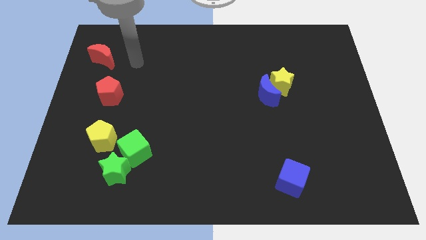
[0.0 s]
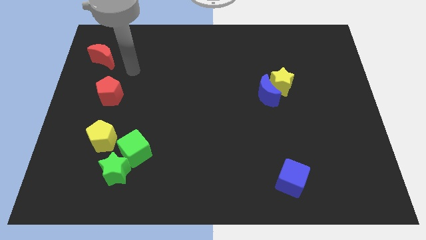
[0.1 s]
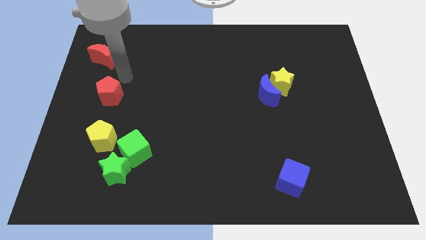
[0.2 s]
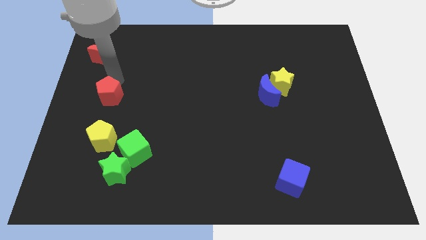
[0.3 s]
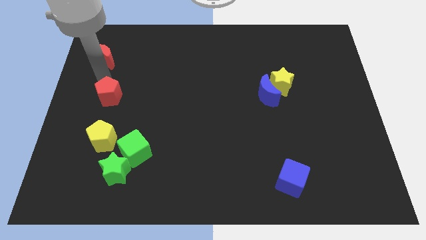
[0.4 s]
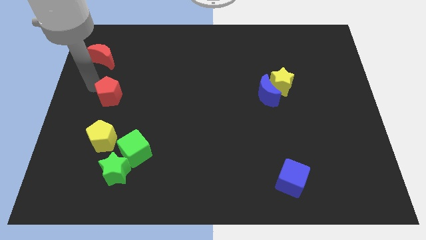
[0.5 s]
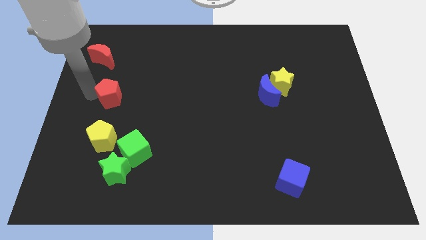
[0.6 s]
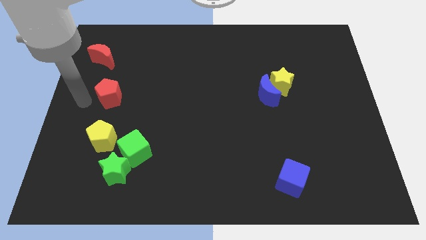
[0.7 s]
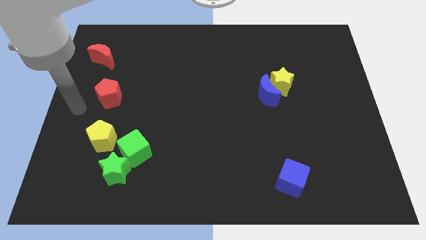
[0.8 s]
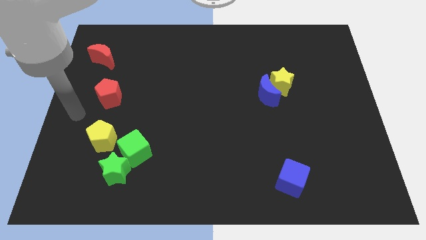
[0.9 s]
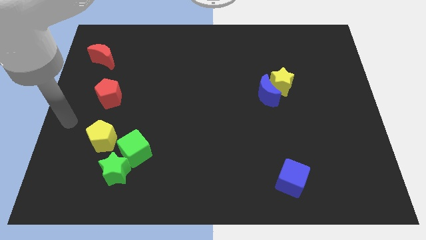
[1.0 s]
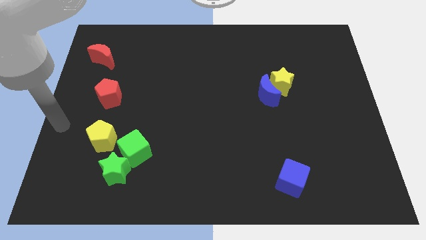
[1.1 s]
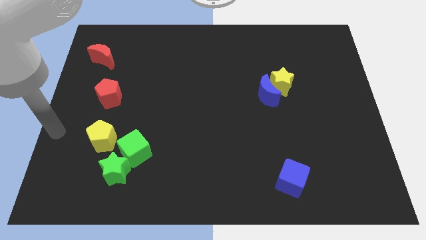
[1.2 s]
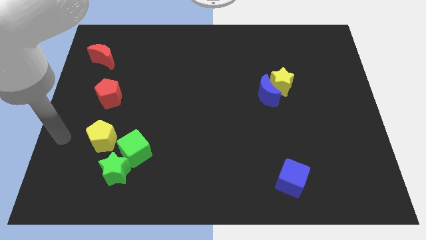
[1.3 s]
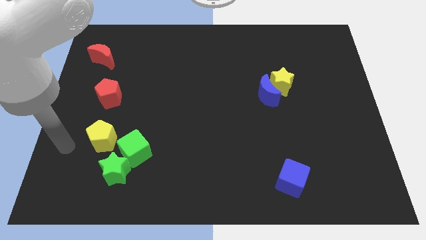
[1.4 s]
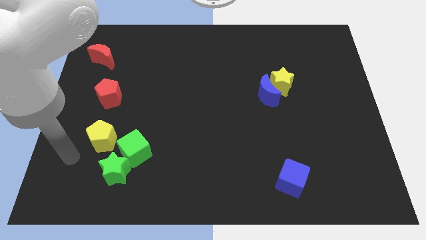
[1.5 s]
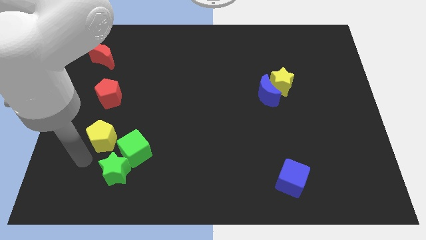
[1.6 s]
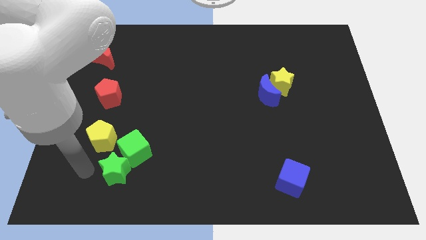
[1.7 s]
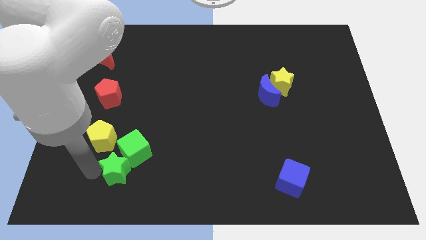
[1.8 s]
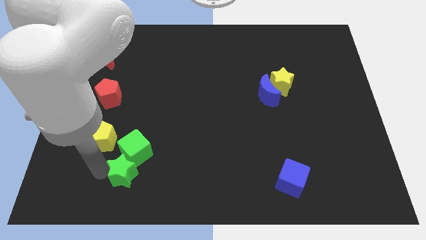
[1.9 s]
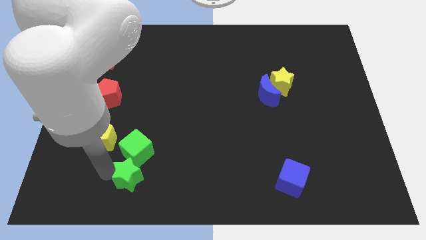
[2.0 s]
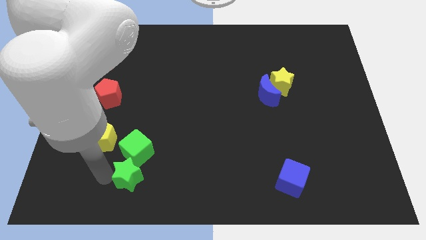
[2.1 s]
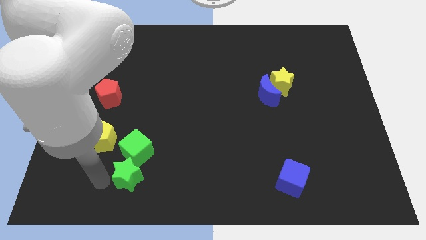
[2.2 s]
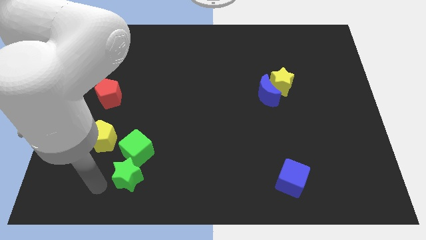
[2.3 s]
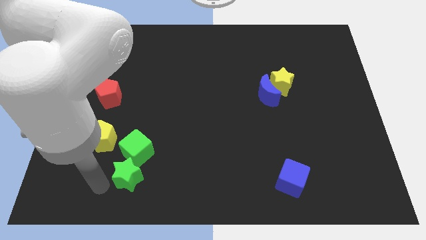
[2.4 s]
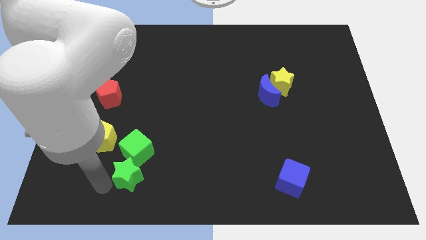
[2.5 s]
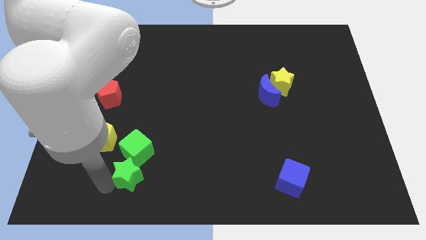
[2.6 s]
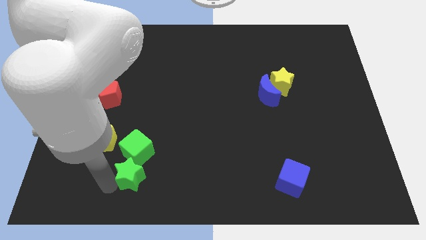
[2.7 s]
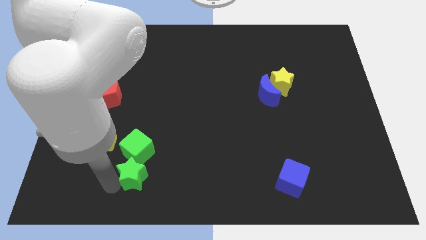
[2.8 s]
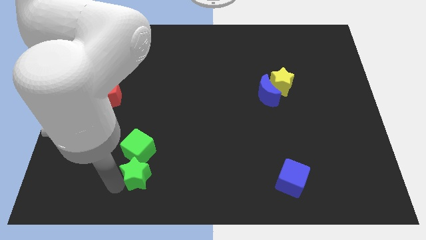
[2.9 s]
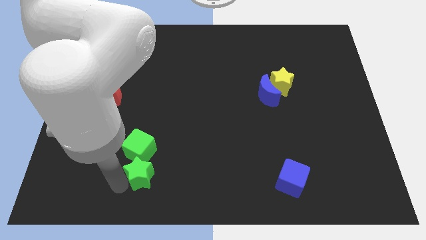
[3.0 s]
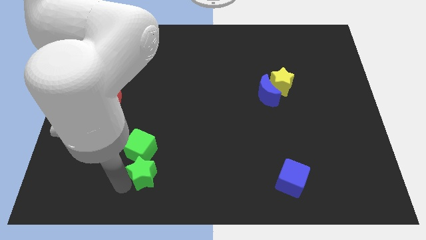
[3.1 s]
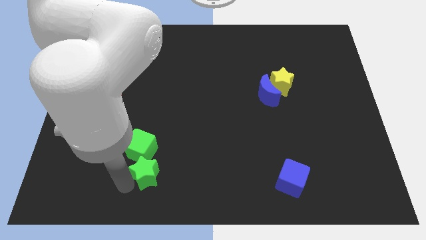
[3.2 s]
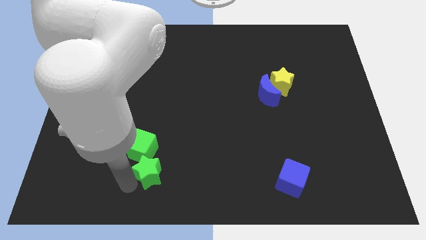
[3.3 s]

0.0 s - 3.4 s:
slightly push the green star right

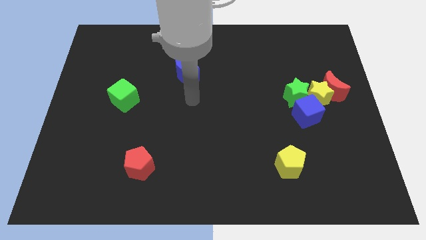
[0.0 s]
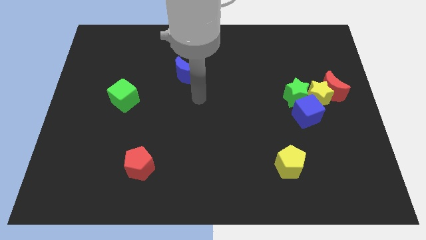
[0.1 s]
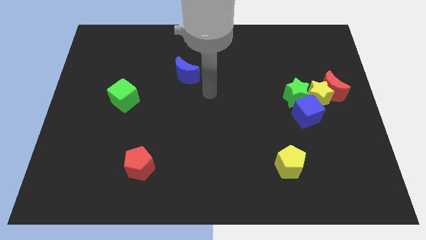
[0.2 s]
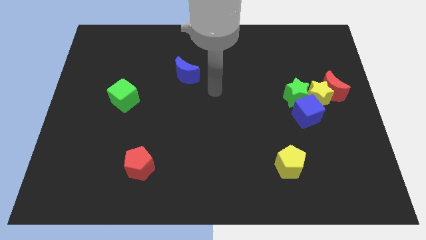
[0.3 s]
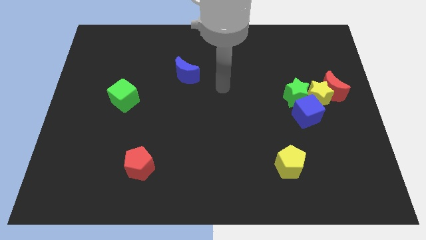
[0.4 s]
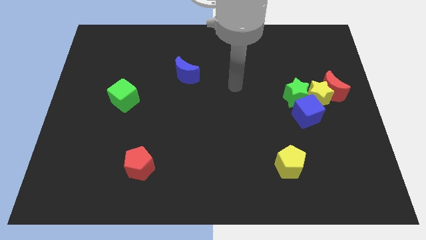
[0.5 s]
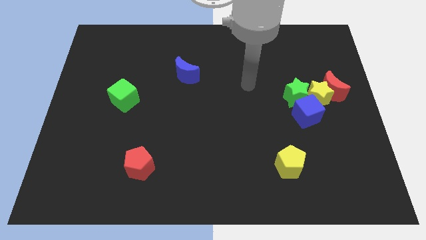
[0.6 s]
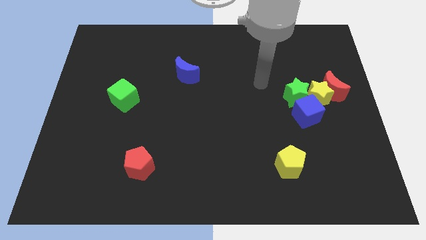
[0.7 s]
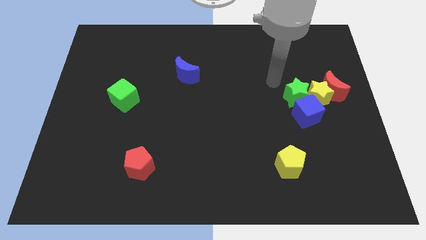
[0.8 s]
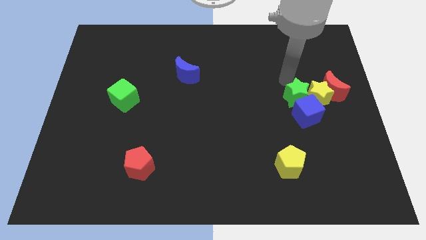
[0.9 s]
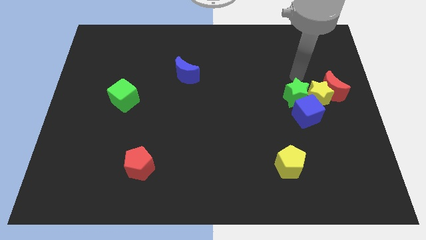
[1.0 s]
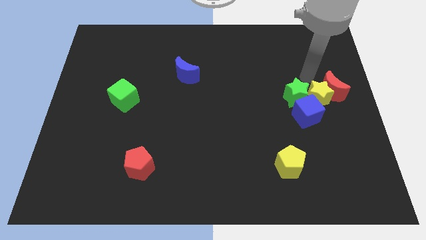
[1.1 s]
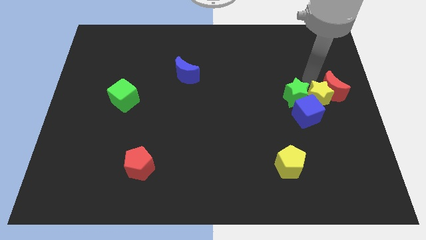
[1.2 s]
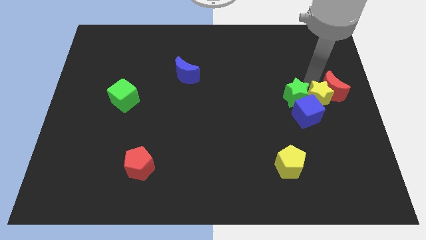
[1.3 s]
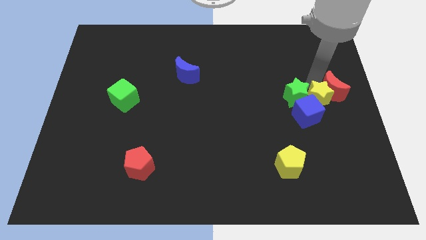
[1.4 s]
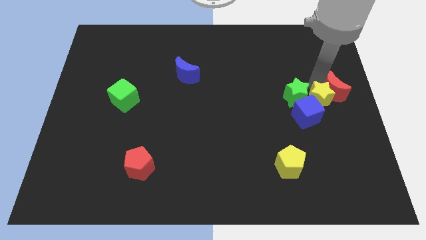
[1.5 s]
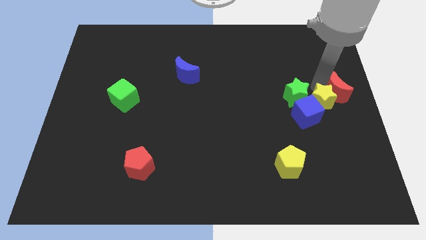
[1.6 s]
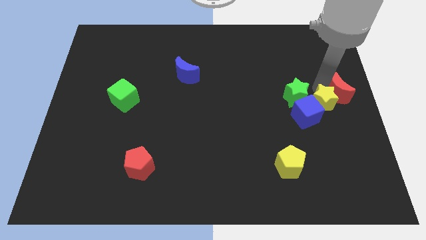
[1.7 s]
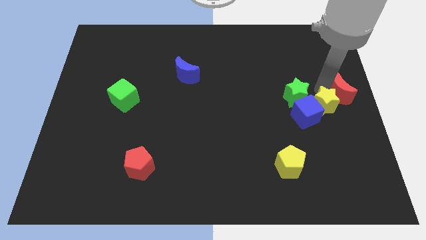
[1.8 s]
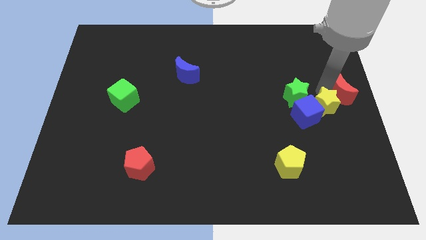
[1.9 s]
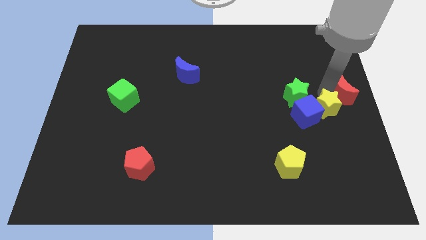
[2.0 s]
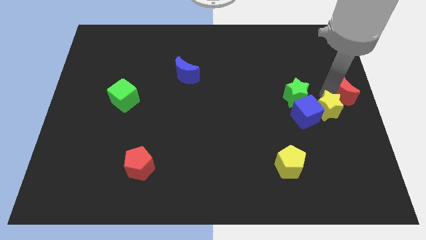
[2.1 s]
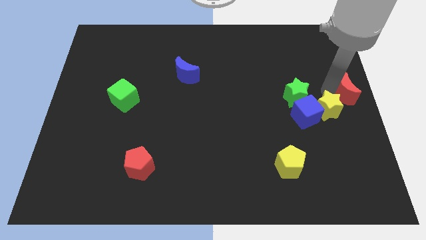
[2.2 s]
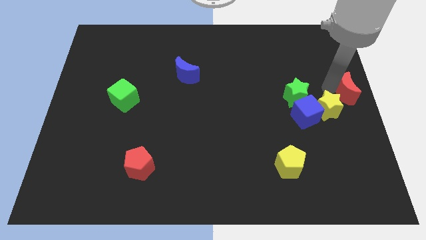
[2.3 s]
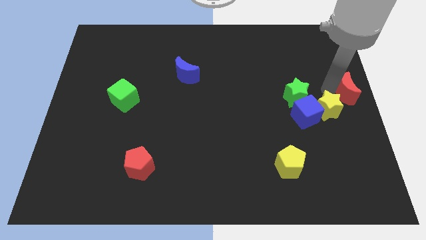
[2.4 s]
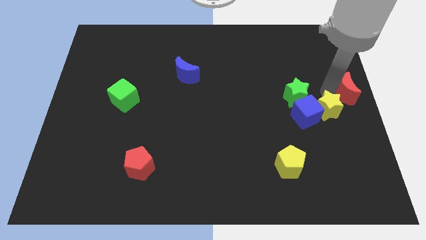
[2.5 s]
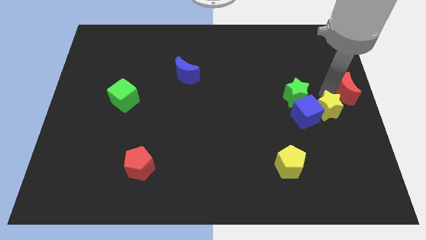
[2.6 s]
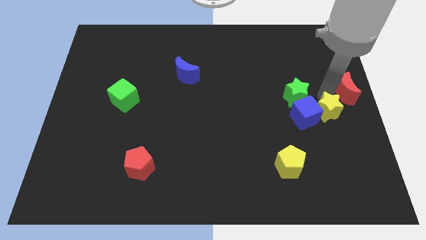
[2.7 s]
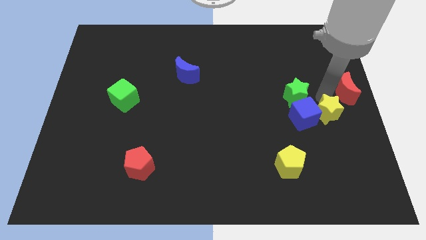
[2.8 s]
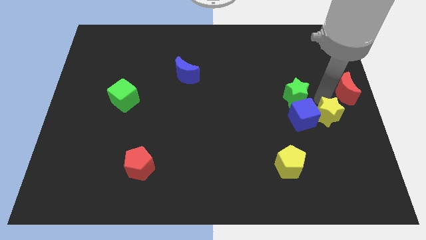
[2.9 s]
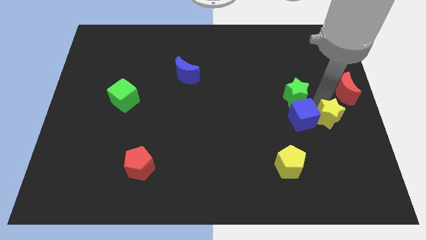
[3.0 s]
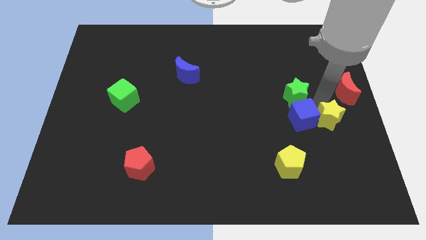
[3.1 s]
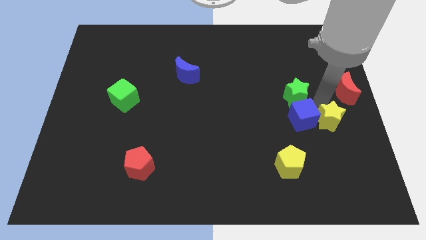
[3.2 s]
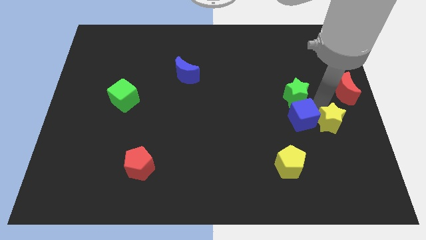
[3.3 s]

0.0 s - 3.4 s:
push the yellow star a bit down

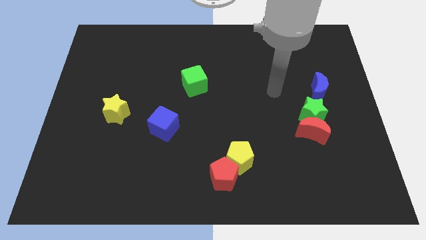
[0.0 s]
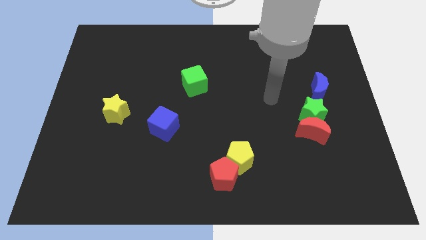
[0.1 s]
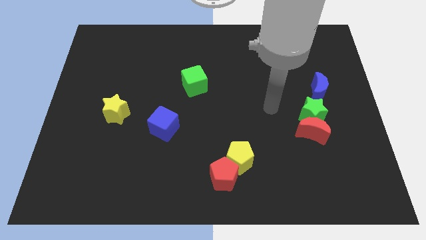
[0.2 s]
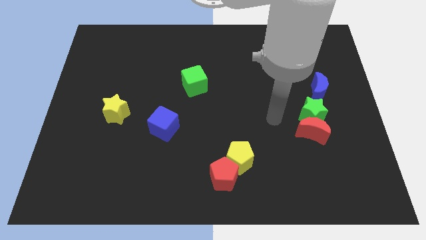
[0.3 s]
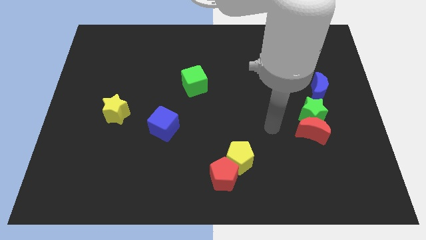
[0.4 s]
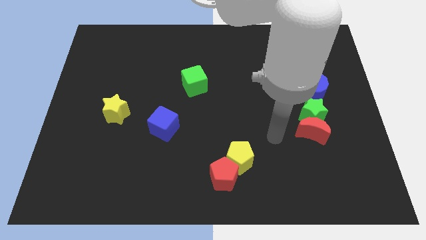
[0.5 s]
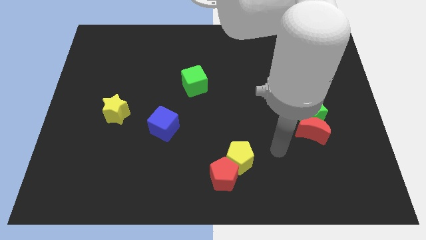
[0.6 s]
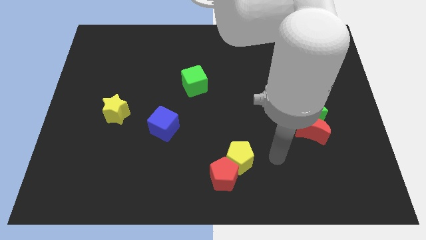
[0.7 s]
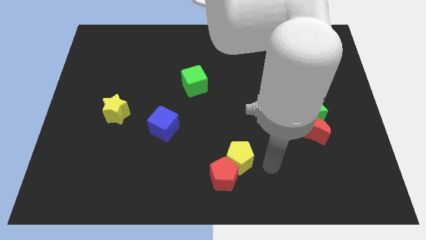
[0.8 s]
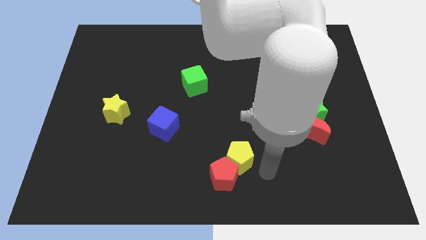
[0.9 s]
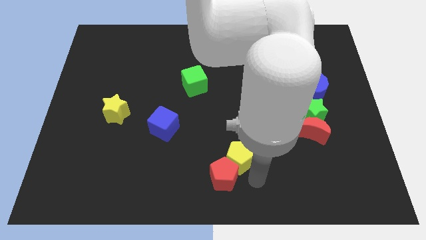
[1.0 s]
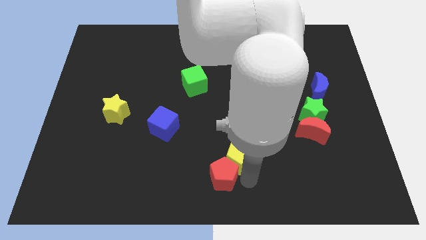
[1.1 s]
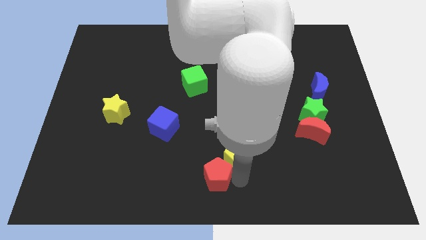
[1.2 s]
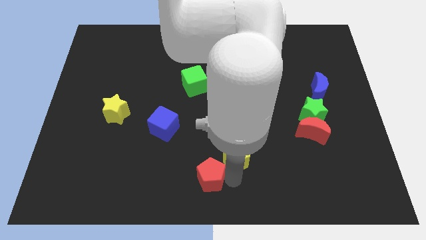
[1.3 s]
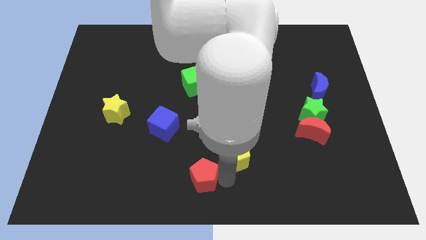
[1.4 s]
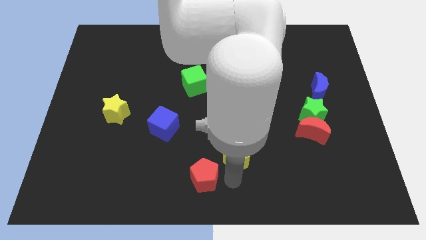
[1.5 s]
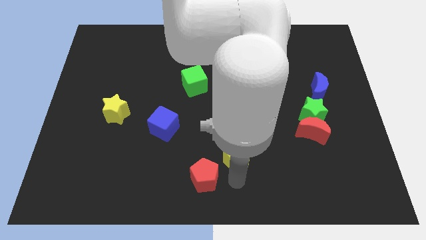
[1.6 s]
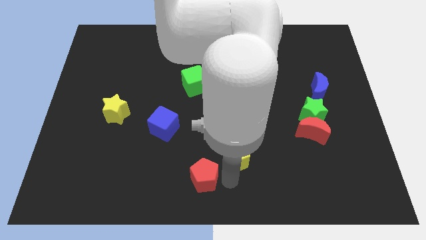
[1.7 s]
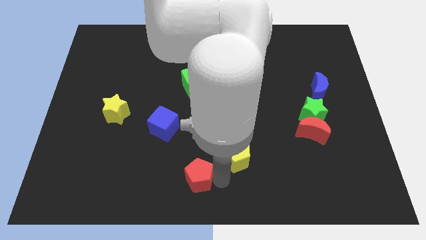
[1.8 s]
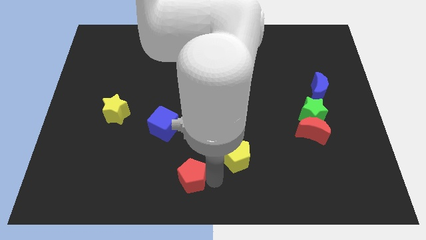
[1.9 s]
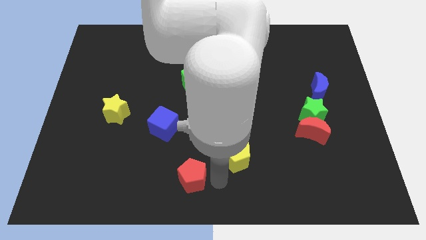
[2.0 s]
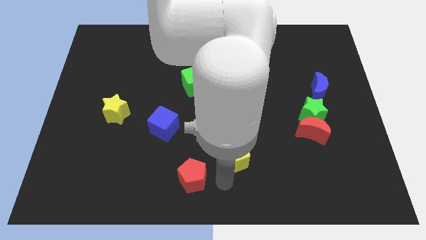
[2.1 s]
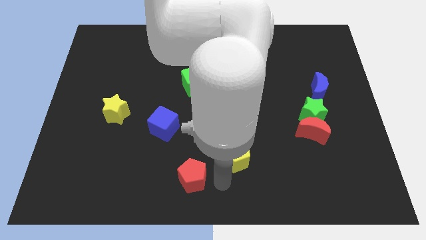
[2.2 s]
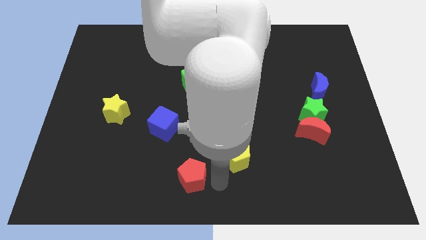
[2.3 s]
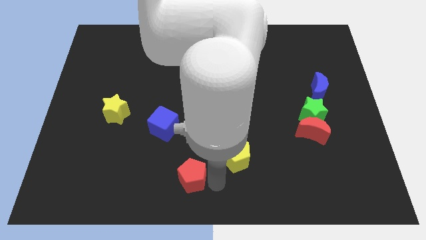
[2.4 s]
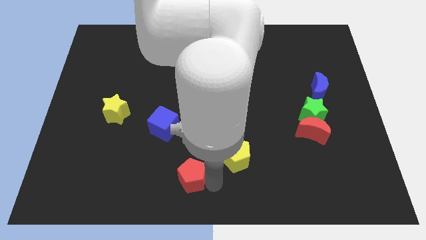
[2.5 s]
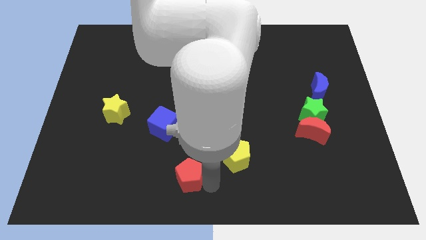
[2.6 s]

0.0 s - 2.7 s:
slide the red pentagon to the left a little
